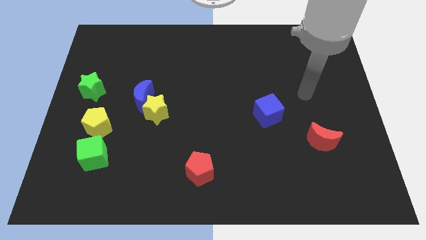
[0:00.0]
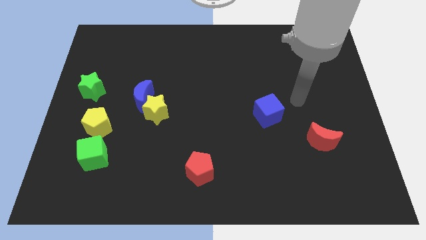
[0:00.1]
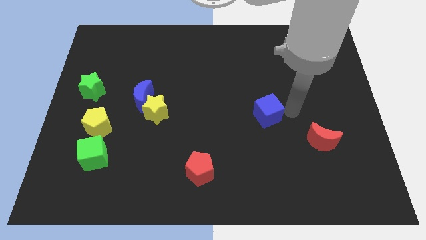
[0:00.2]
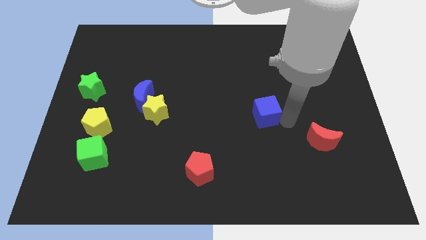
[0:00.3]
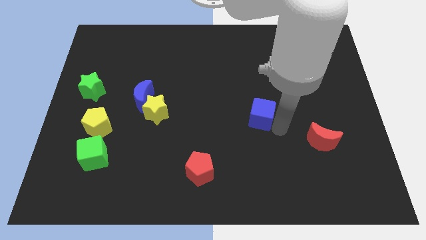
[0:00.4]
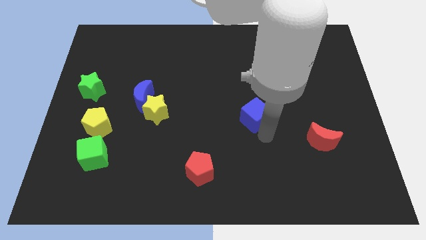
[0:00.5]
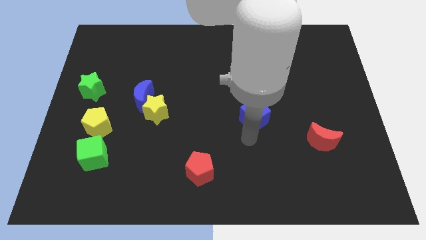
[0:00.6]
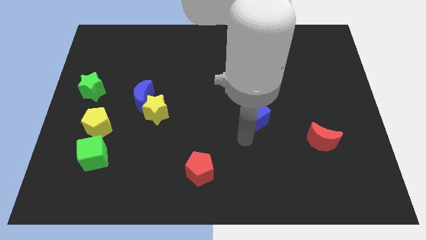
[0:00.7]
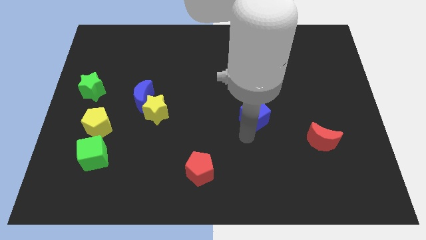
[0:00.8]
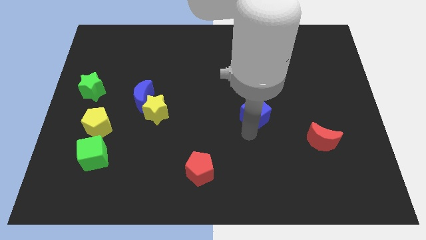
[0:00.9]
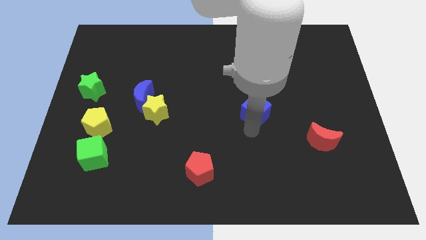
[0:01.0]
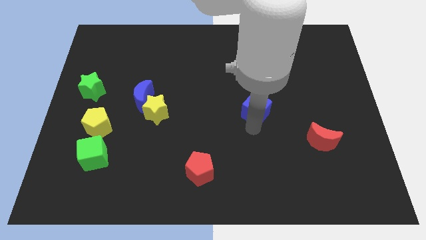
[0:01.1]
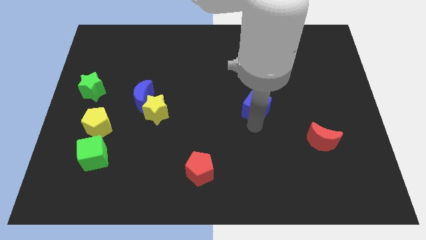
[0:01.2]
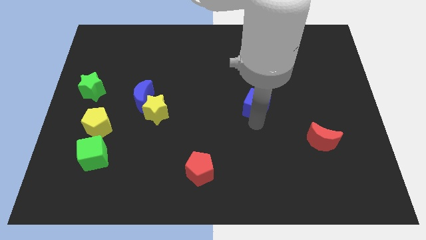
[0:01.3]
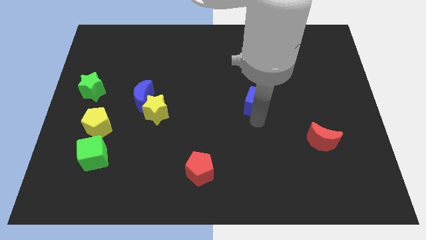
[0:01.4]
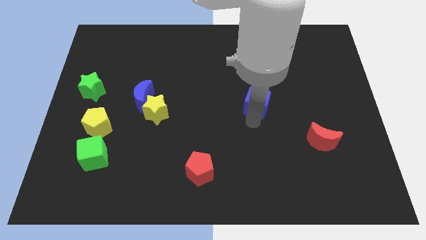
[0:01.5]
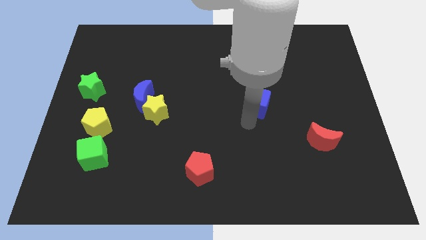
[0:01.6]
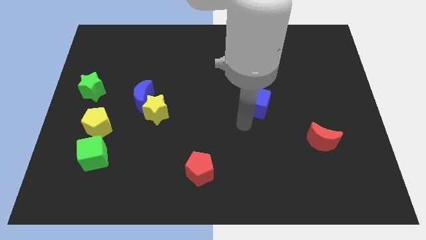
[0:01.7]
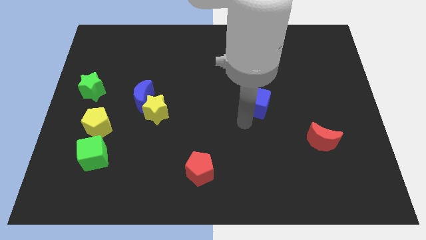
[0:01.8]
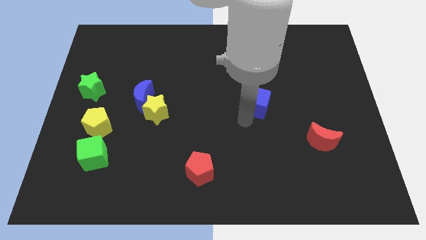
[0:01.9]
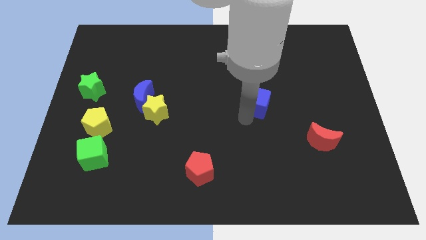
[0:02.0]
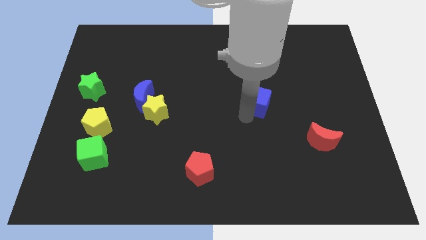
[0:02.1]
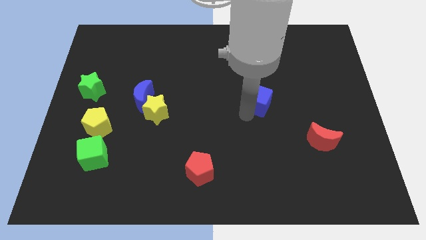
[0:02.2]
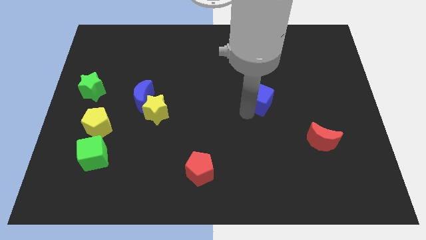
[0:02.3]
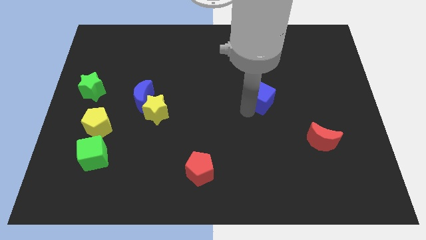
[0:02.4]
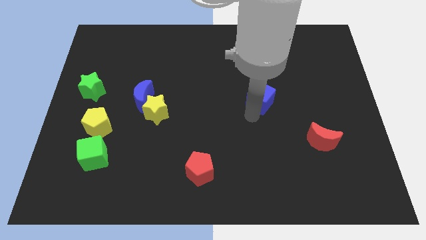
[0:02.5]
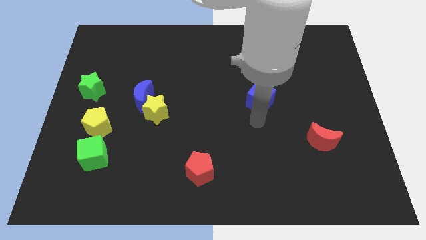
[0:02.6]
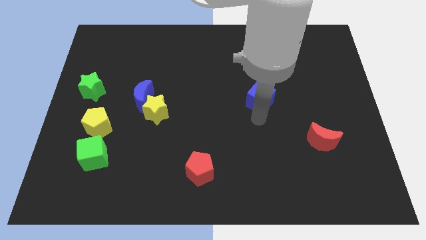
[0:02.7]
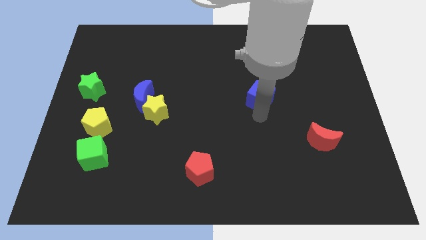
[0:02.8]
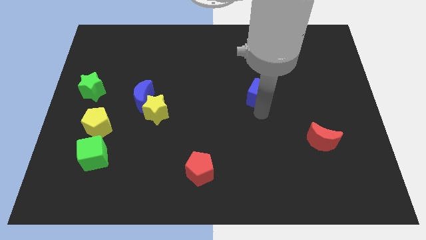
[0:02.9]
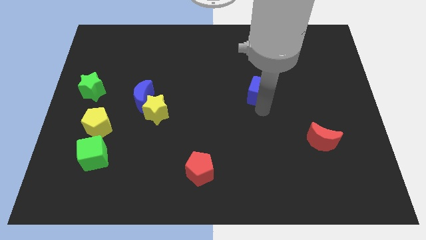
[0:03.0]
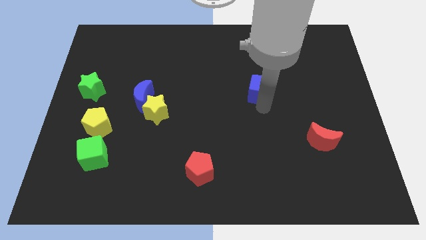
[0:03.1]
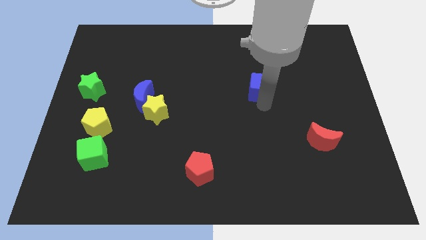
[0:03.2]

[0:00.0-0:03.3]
slightly move the blue cube upwards

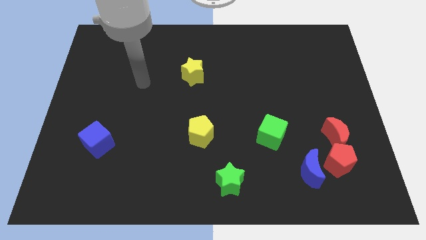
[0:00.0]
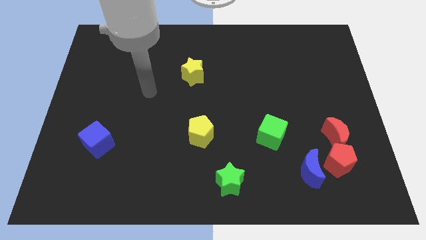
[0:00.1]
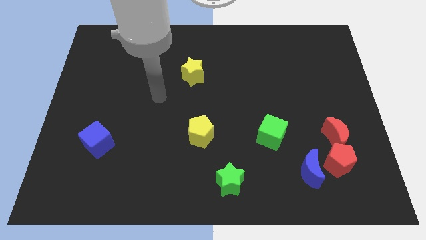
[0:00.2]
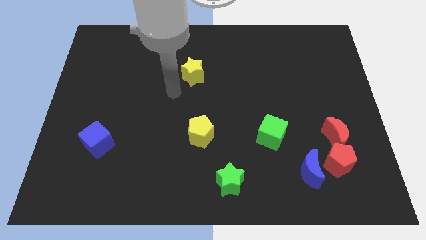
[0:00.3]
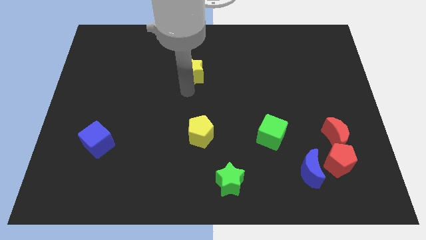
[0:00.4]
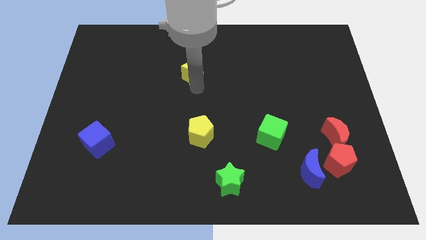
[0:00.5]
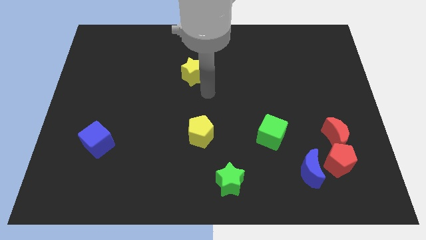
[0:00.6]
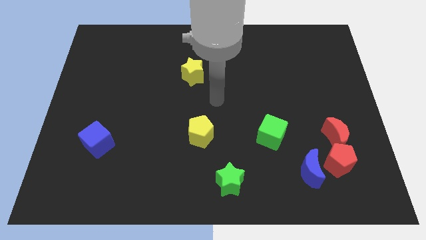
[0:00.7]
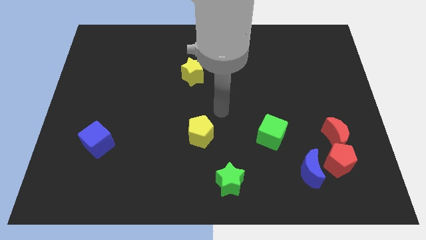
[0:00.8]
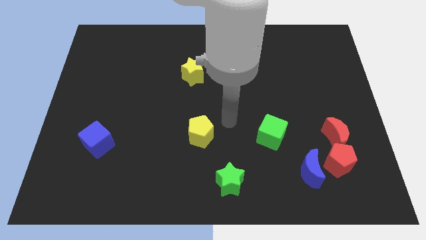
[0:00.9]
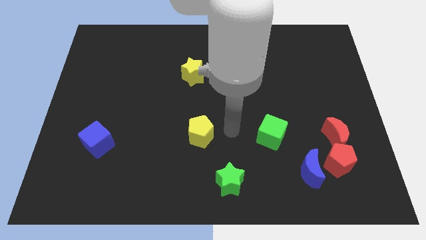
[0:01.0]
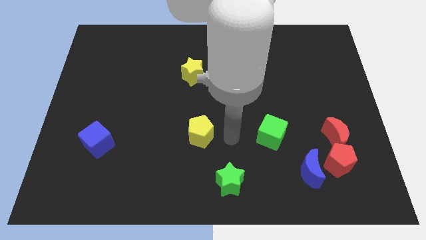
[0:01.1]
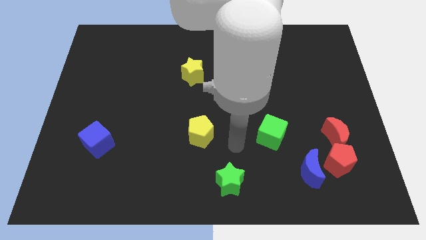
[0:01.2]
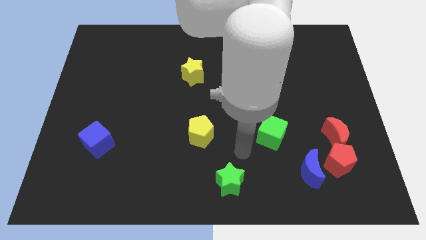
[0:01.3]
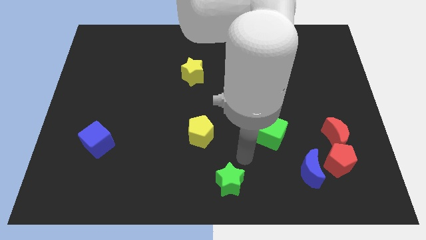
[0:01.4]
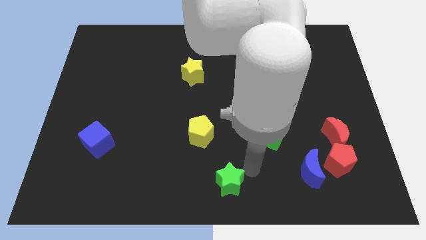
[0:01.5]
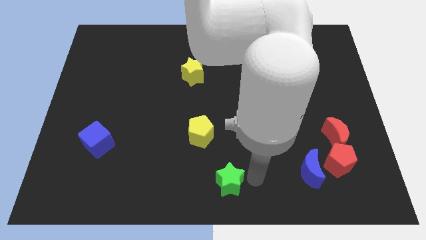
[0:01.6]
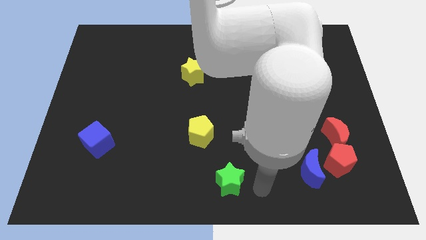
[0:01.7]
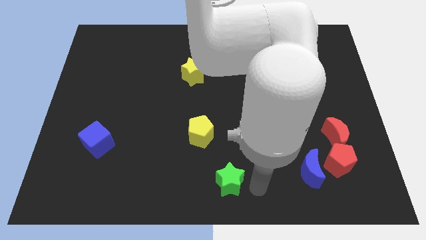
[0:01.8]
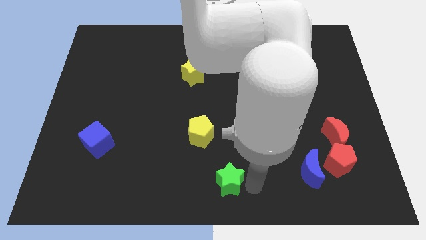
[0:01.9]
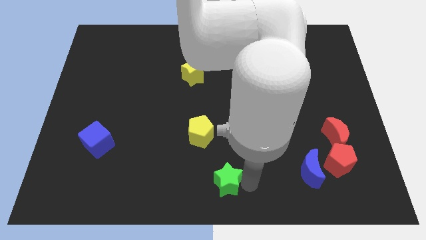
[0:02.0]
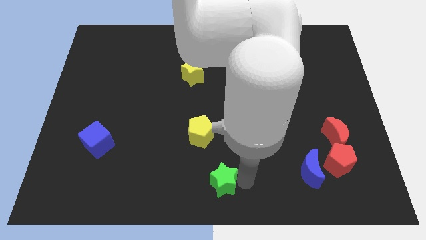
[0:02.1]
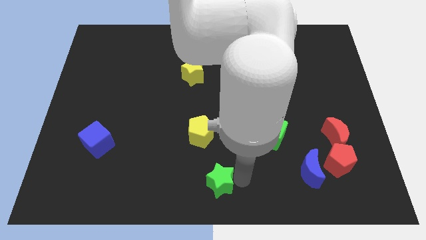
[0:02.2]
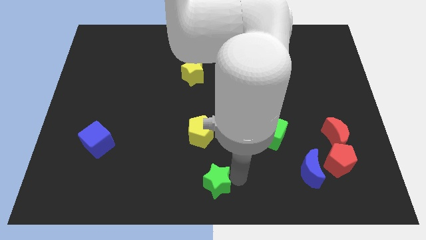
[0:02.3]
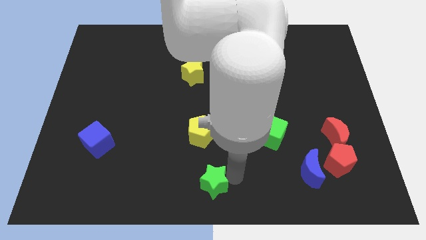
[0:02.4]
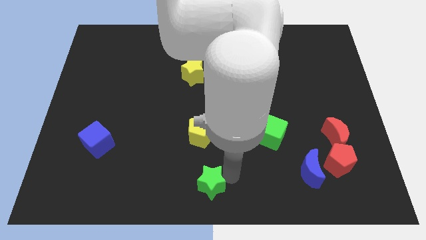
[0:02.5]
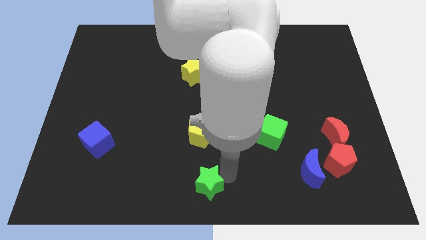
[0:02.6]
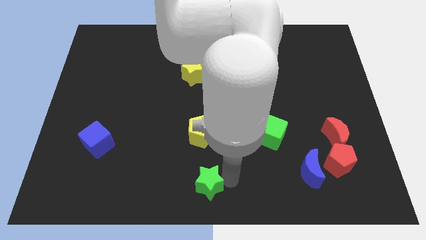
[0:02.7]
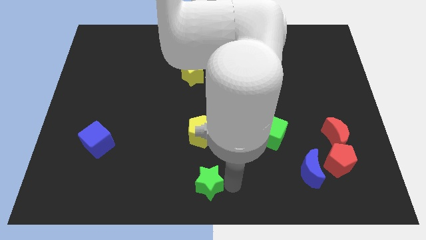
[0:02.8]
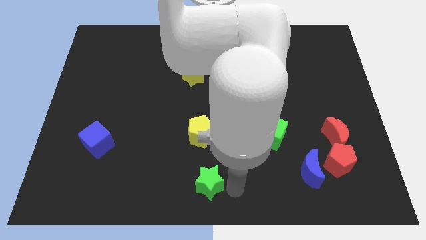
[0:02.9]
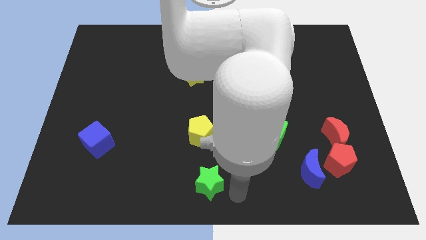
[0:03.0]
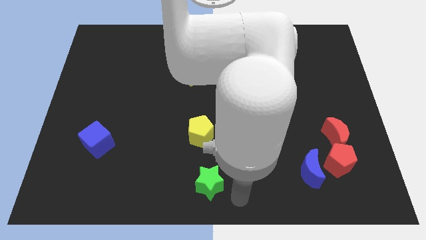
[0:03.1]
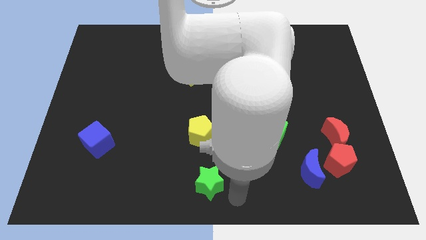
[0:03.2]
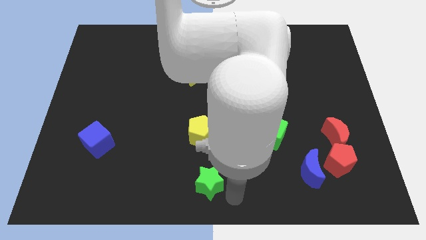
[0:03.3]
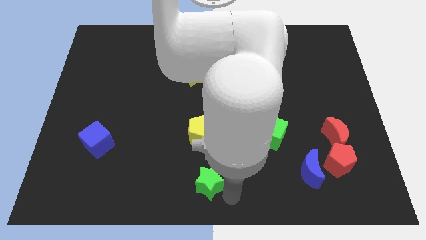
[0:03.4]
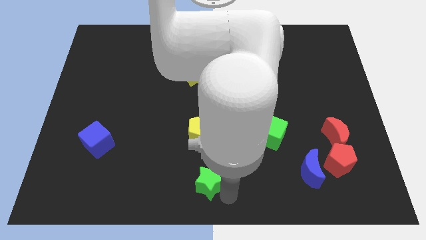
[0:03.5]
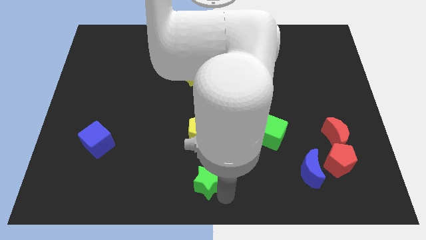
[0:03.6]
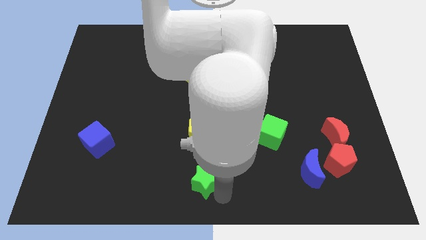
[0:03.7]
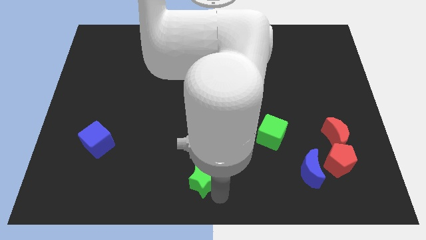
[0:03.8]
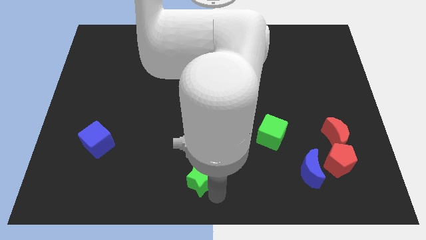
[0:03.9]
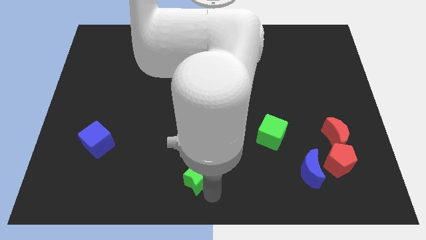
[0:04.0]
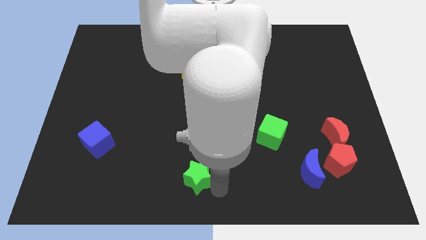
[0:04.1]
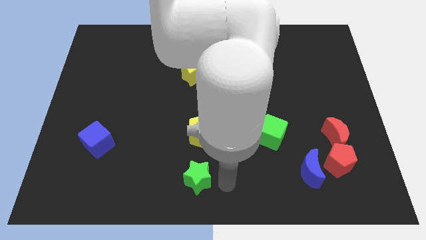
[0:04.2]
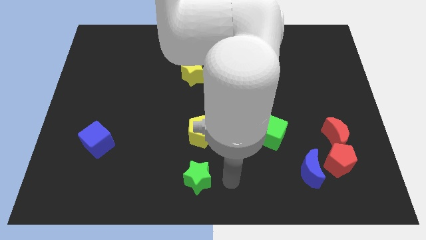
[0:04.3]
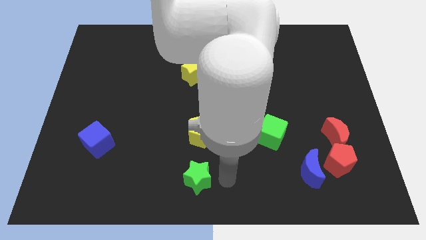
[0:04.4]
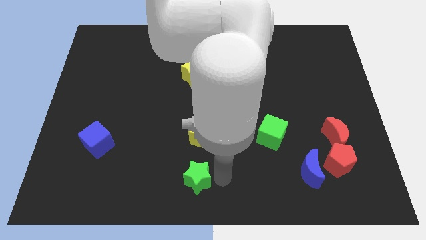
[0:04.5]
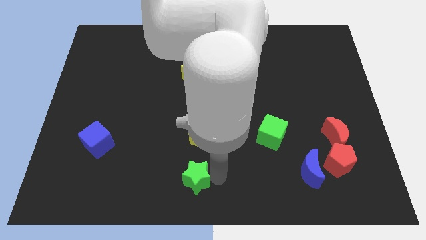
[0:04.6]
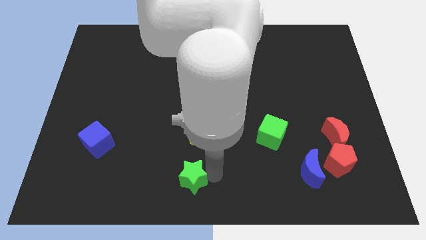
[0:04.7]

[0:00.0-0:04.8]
slide the green star to the left slightly
